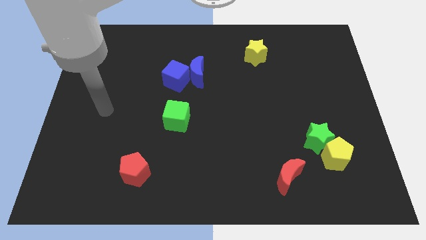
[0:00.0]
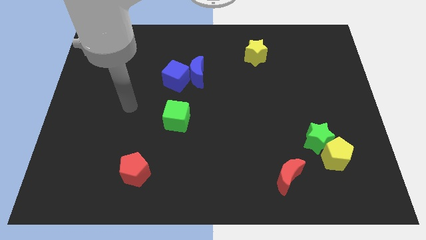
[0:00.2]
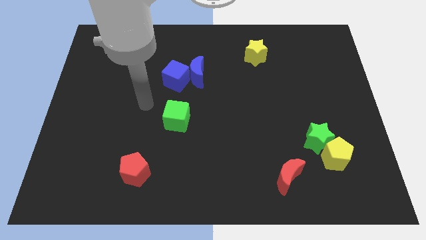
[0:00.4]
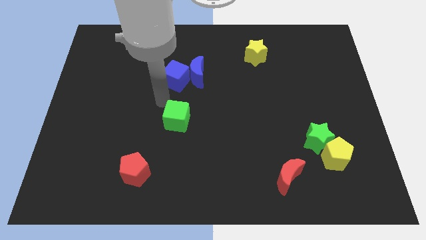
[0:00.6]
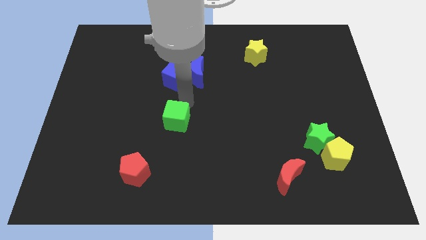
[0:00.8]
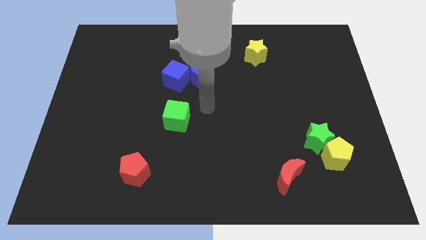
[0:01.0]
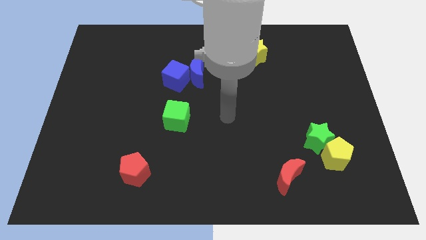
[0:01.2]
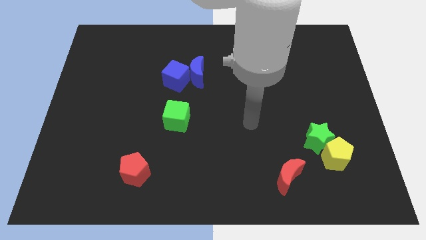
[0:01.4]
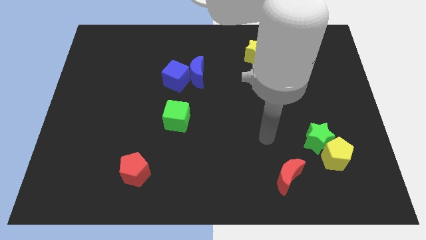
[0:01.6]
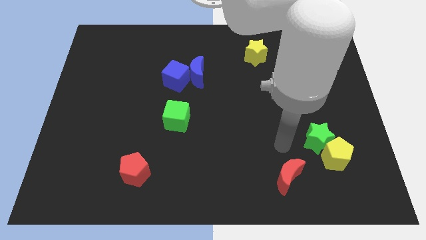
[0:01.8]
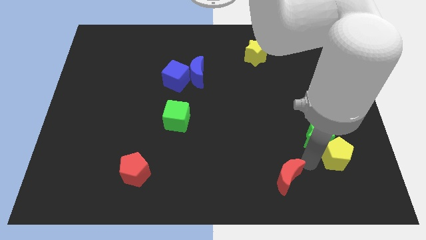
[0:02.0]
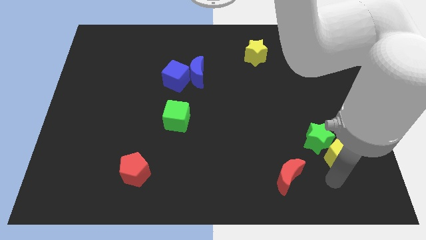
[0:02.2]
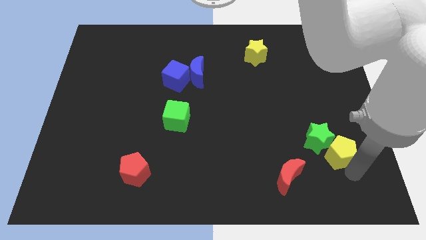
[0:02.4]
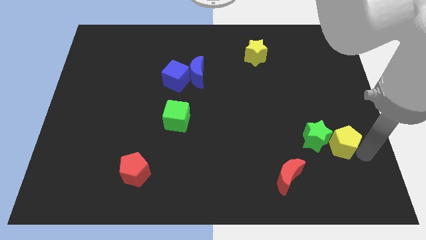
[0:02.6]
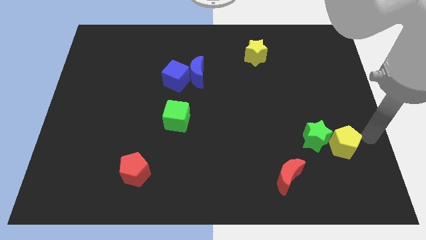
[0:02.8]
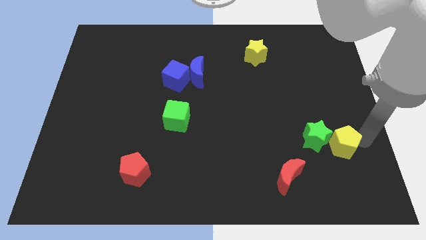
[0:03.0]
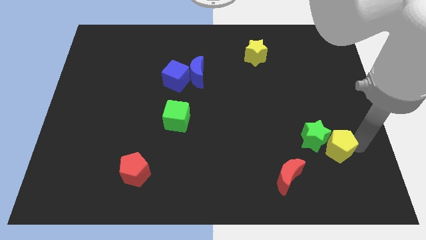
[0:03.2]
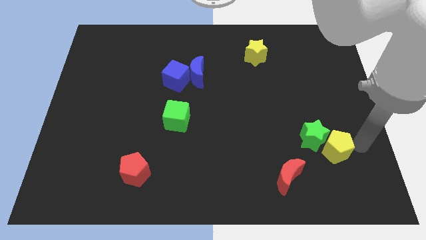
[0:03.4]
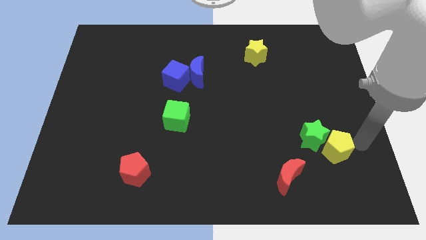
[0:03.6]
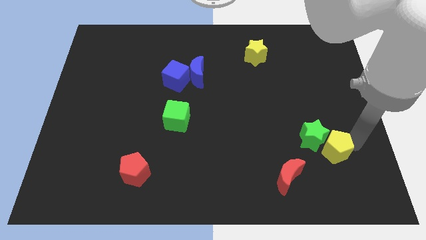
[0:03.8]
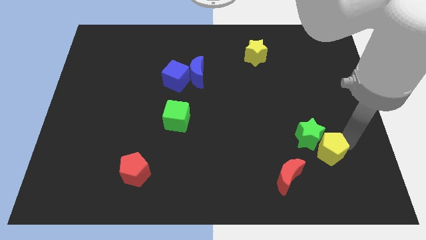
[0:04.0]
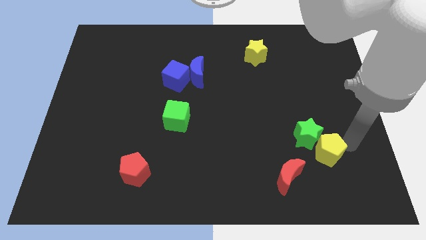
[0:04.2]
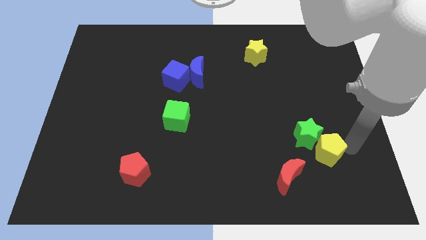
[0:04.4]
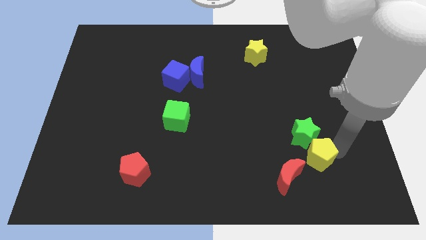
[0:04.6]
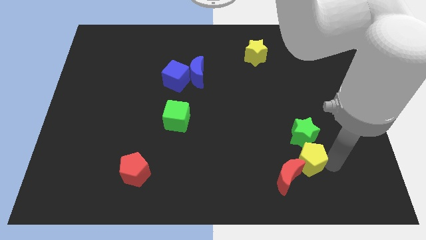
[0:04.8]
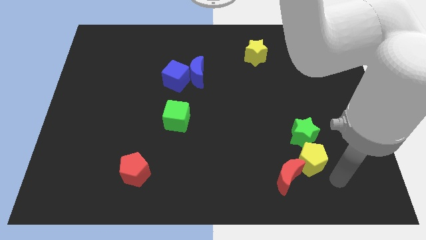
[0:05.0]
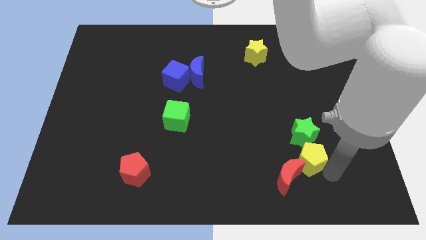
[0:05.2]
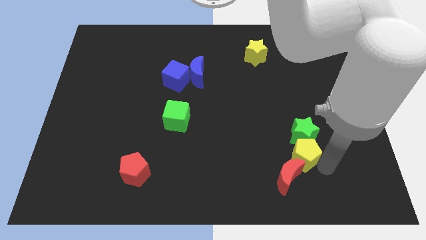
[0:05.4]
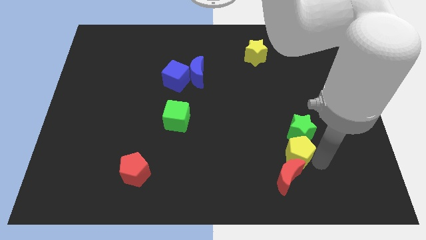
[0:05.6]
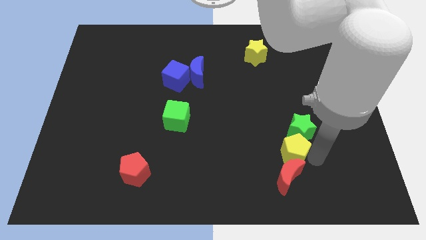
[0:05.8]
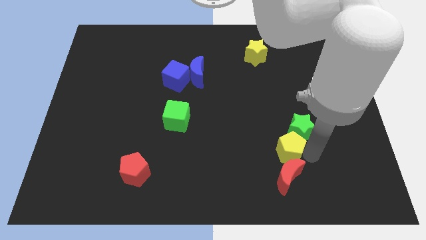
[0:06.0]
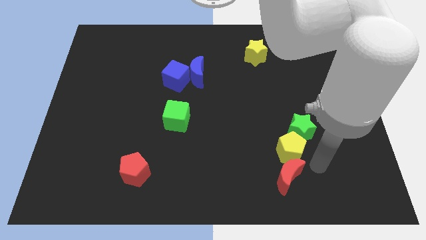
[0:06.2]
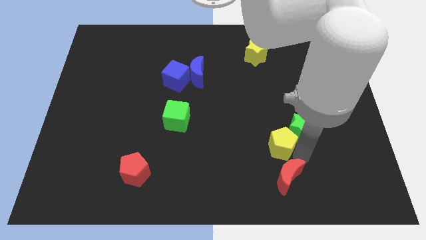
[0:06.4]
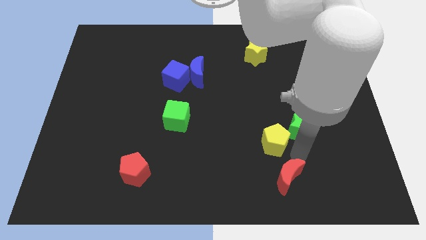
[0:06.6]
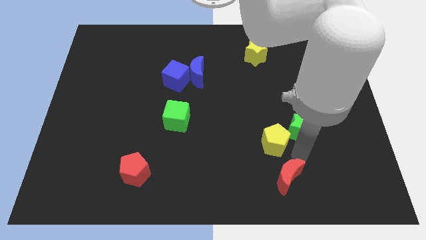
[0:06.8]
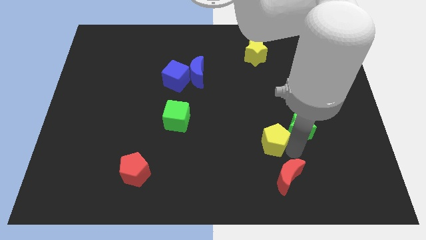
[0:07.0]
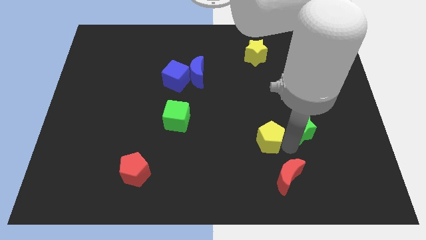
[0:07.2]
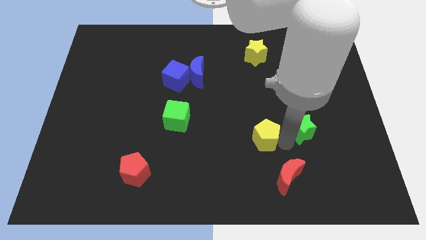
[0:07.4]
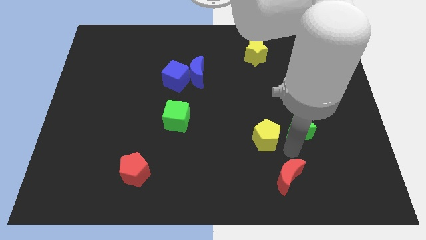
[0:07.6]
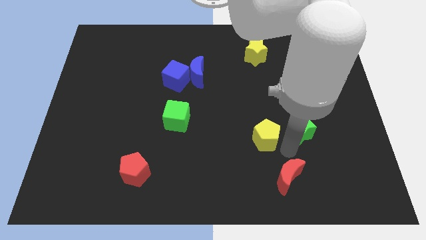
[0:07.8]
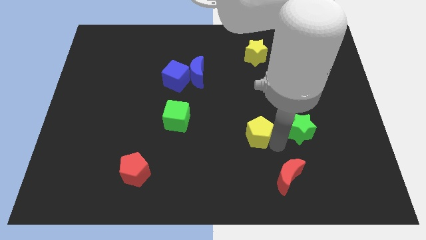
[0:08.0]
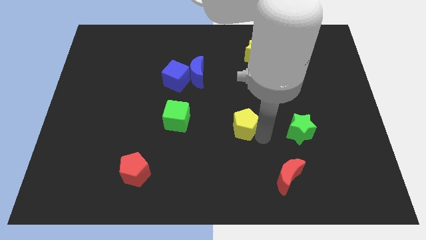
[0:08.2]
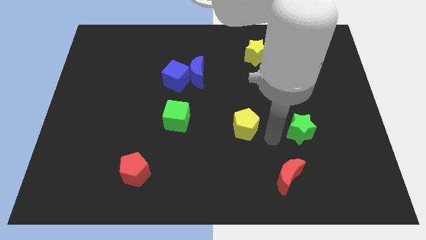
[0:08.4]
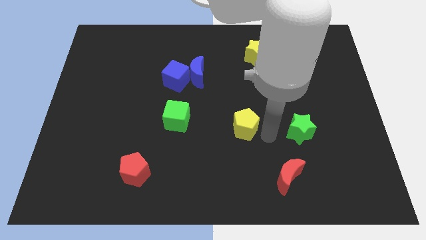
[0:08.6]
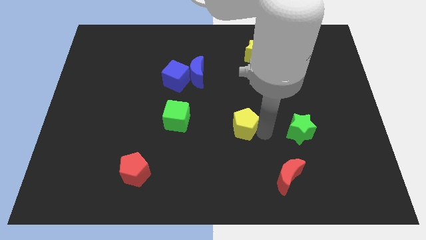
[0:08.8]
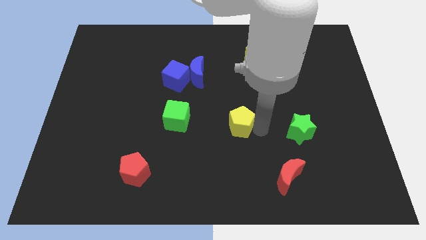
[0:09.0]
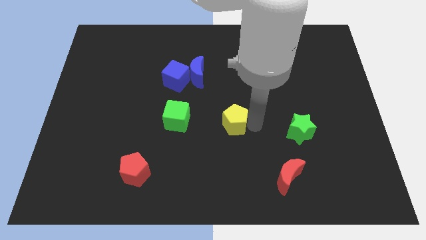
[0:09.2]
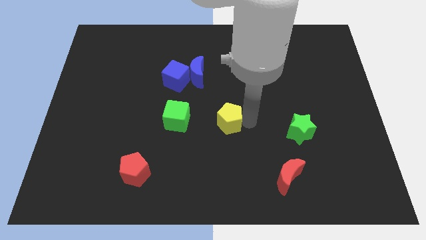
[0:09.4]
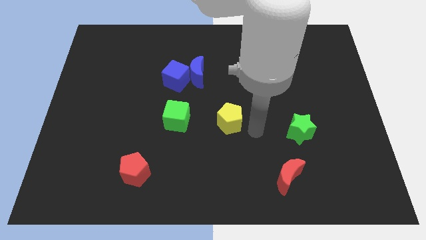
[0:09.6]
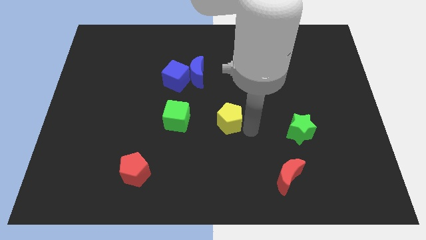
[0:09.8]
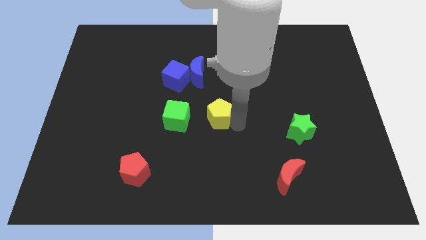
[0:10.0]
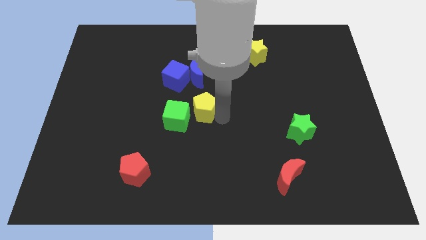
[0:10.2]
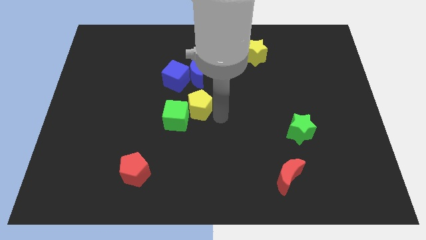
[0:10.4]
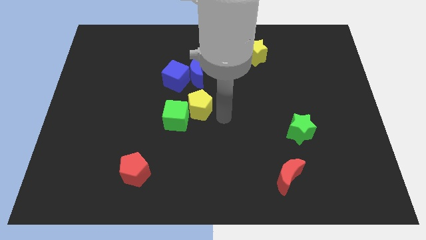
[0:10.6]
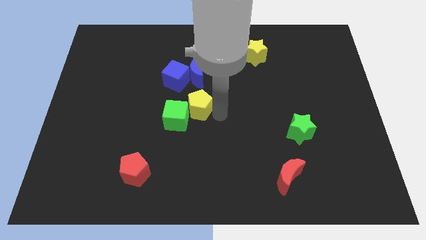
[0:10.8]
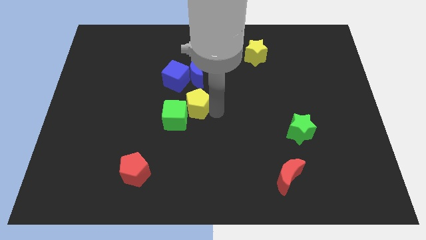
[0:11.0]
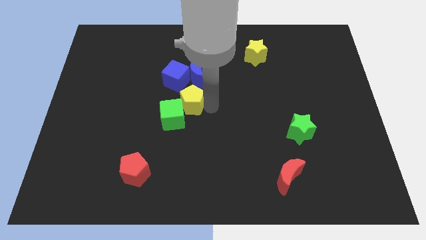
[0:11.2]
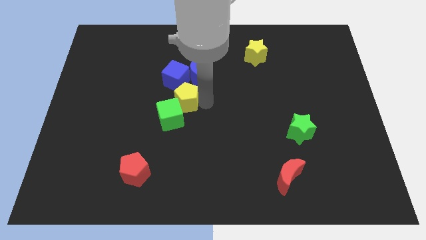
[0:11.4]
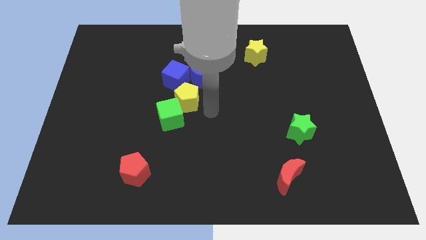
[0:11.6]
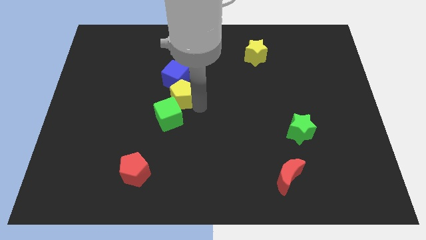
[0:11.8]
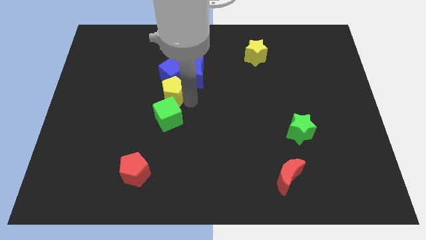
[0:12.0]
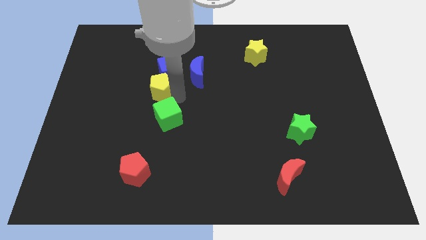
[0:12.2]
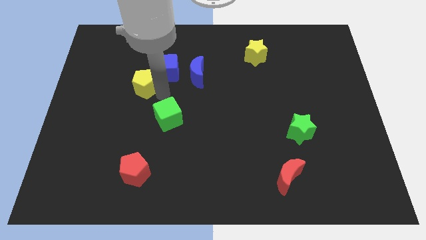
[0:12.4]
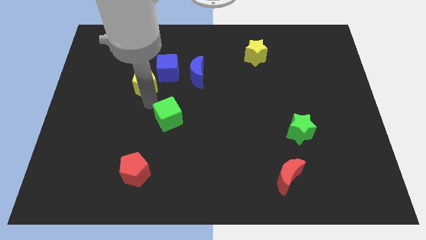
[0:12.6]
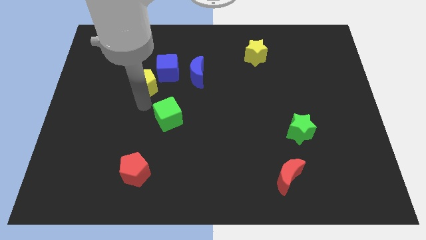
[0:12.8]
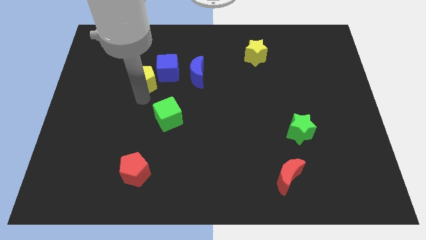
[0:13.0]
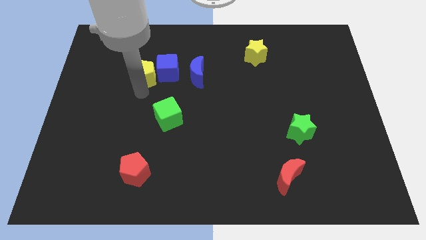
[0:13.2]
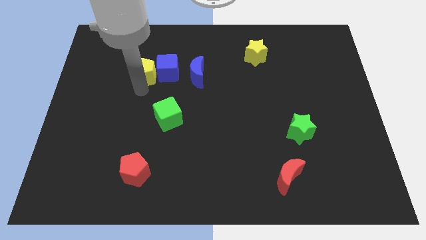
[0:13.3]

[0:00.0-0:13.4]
move the yellow pentagon diagonally up and to the left of the blue cube
